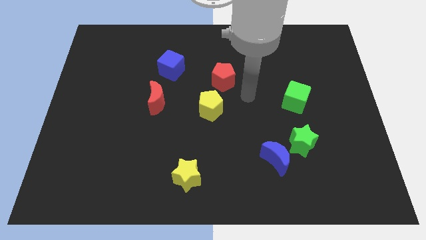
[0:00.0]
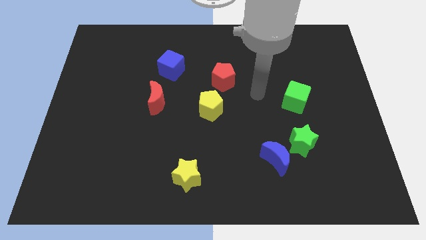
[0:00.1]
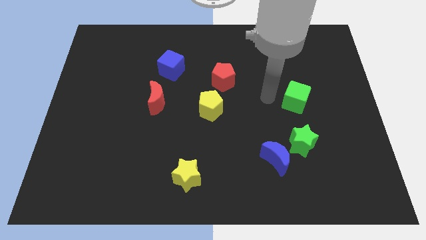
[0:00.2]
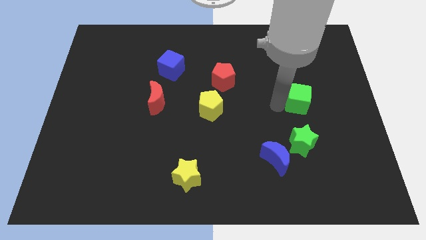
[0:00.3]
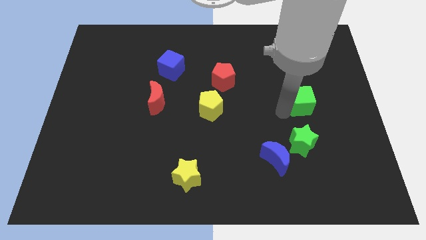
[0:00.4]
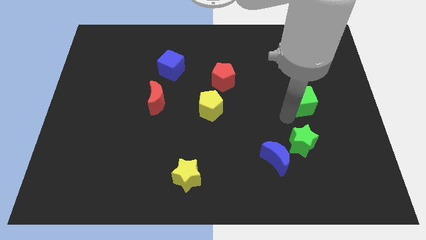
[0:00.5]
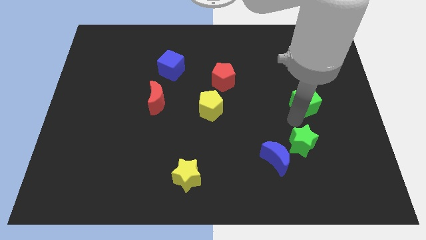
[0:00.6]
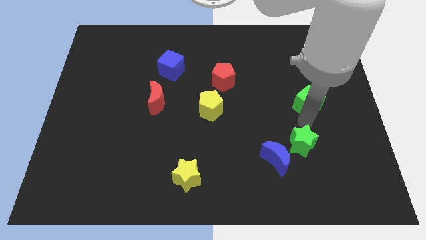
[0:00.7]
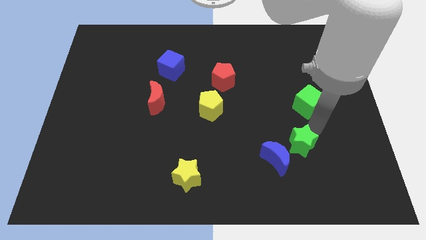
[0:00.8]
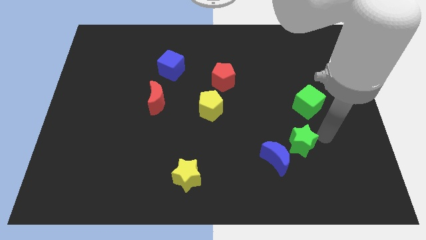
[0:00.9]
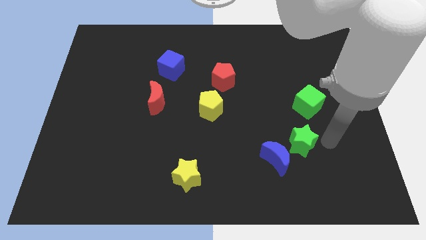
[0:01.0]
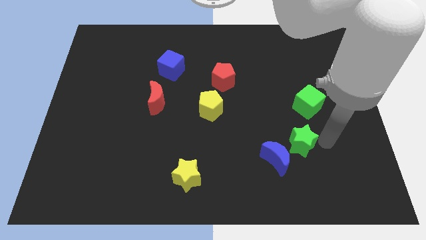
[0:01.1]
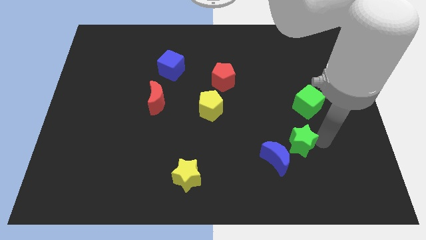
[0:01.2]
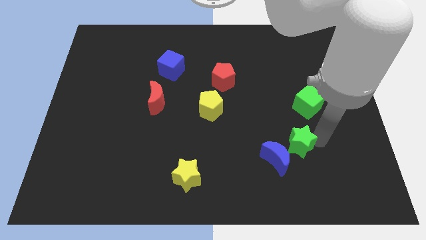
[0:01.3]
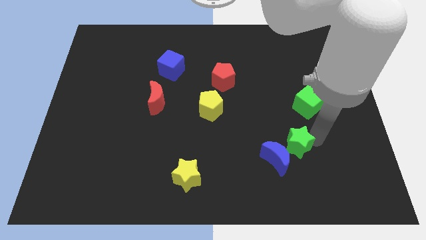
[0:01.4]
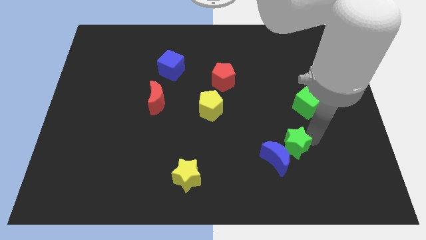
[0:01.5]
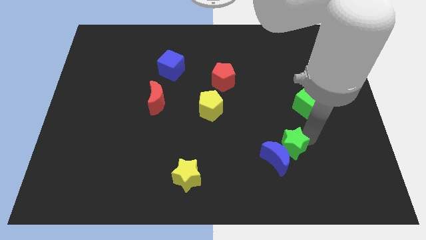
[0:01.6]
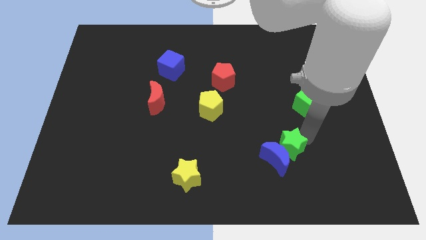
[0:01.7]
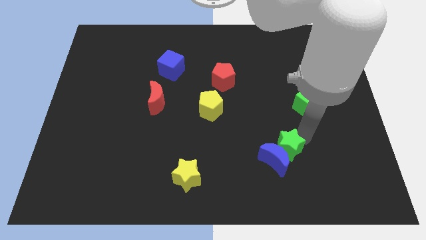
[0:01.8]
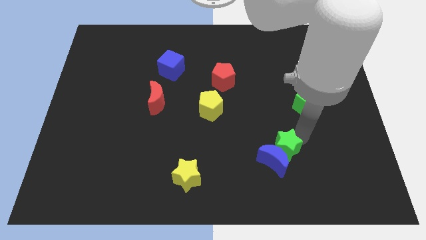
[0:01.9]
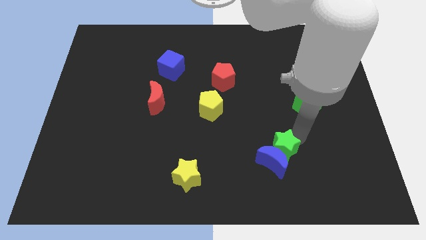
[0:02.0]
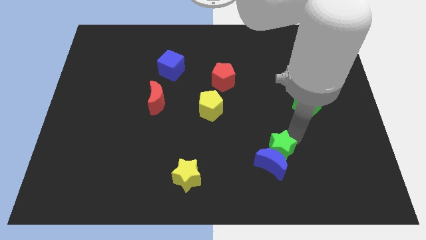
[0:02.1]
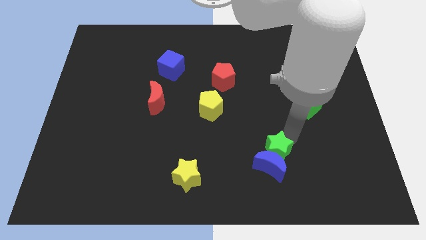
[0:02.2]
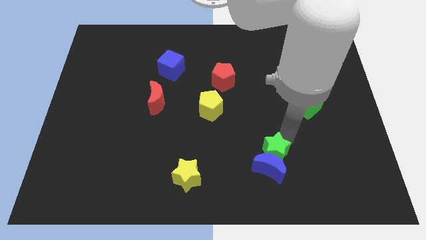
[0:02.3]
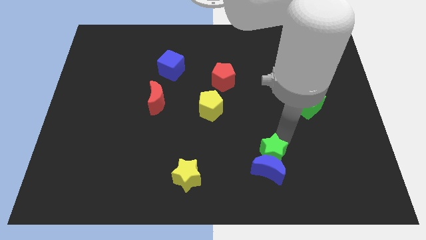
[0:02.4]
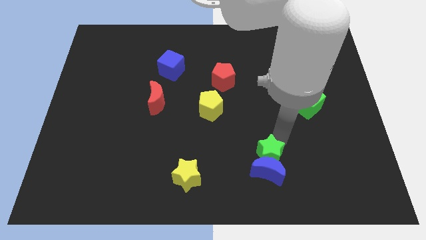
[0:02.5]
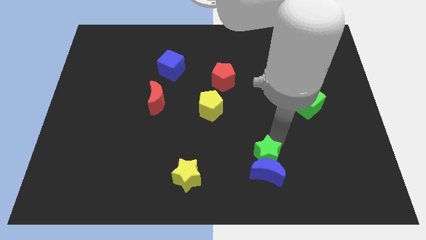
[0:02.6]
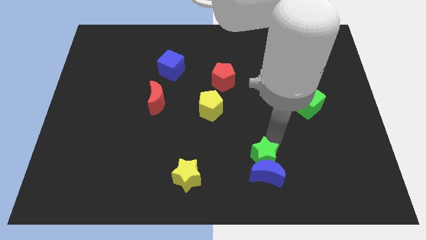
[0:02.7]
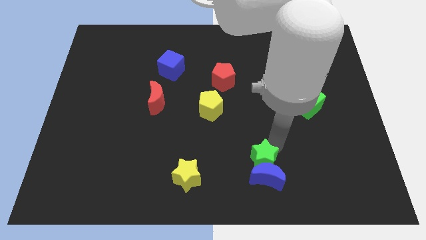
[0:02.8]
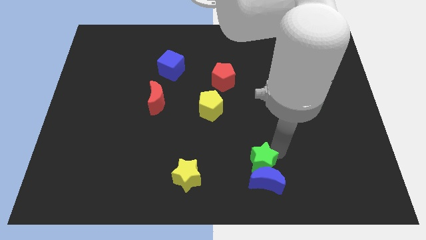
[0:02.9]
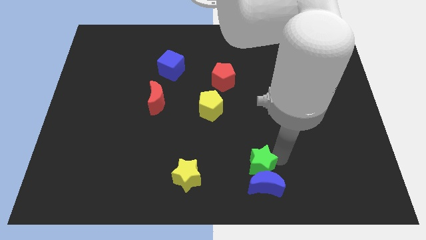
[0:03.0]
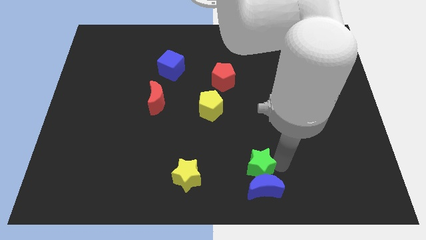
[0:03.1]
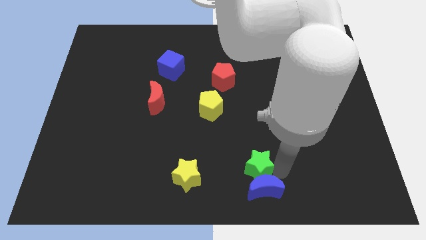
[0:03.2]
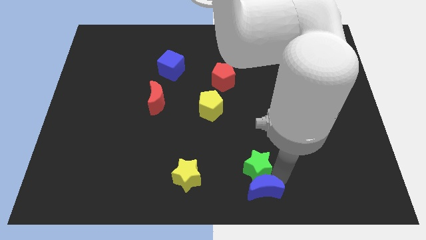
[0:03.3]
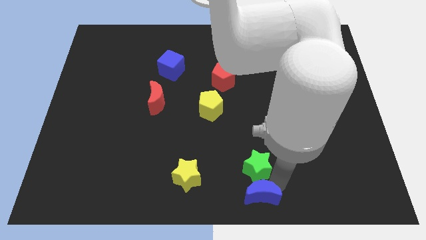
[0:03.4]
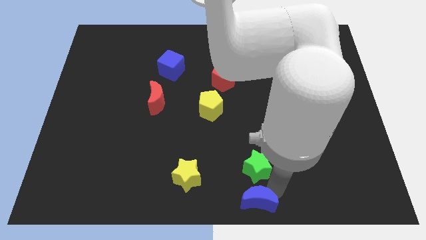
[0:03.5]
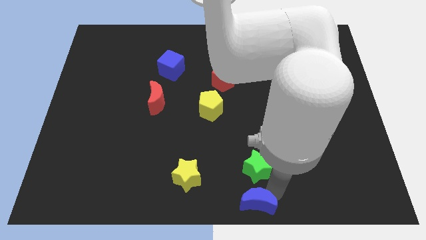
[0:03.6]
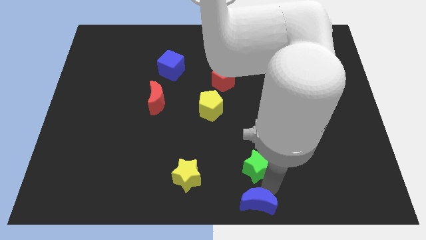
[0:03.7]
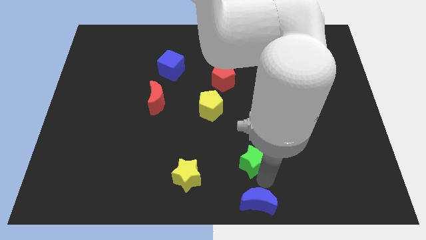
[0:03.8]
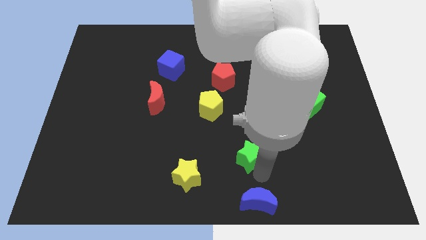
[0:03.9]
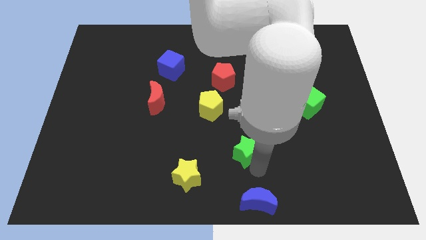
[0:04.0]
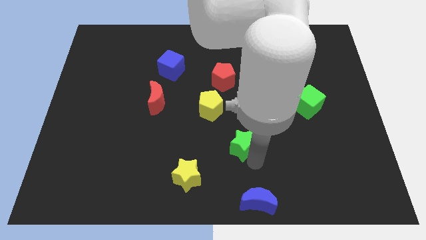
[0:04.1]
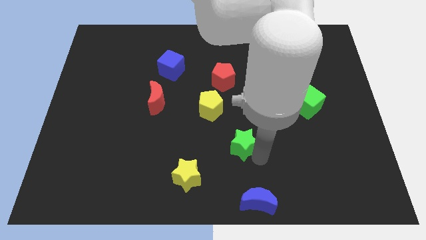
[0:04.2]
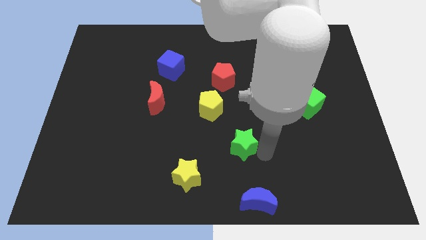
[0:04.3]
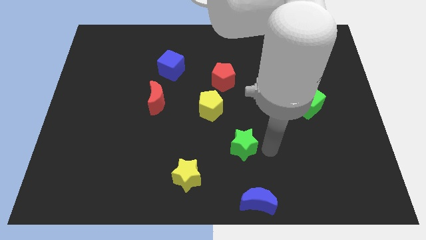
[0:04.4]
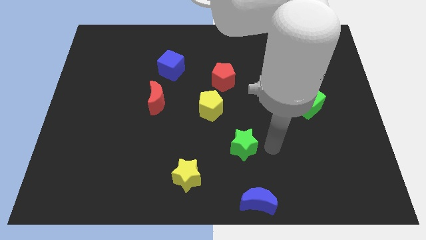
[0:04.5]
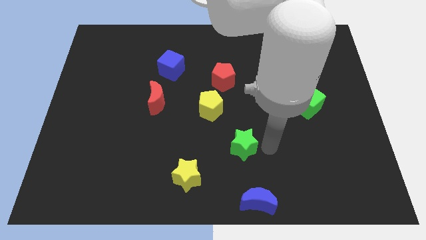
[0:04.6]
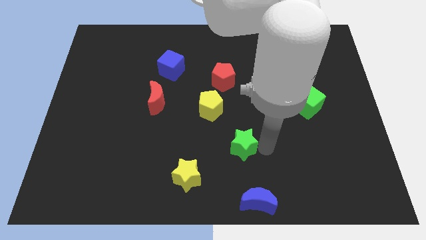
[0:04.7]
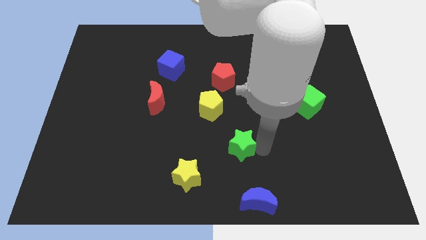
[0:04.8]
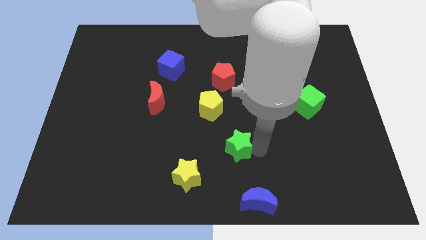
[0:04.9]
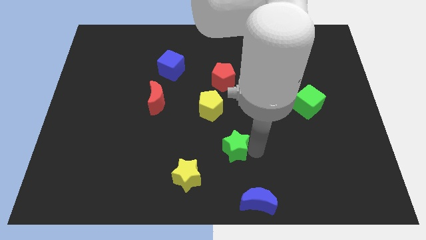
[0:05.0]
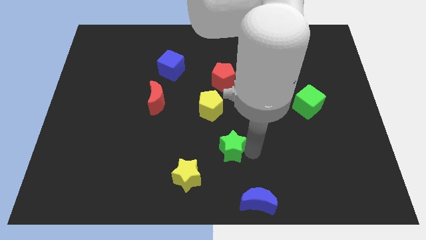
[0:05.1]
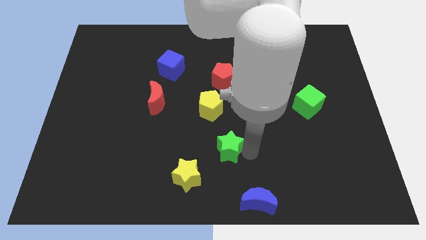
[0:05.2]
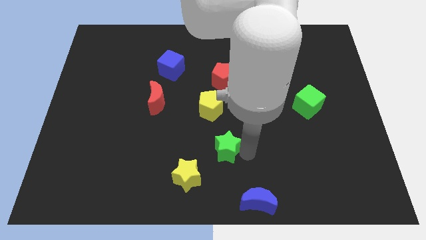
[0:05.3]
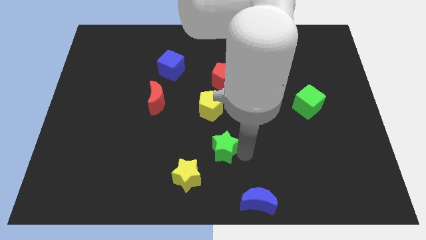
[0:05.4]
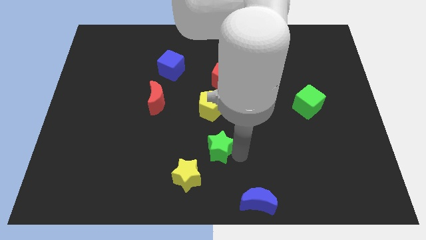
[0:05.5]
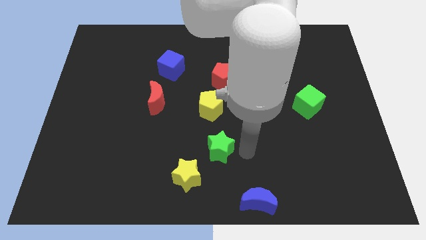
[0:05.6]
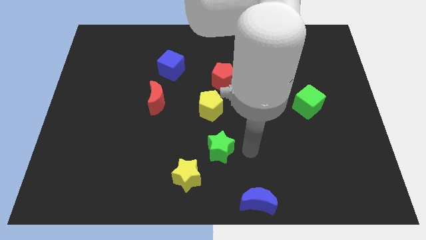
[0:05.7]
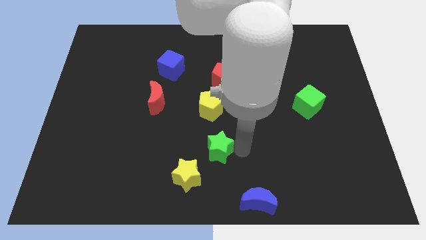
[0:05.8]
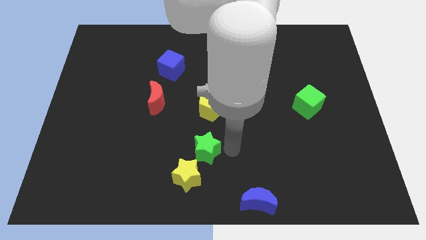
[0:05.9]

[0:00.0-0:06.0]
slide the green star to the left

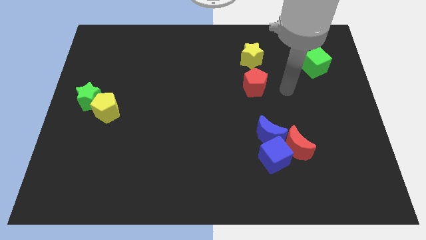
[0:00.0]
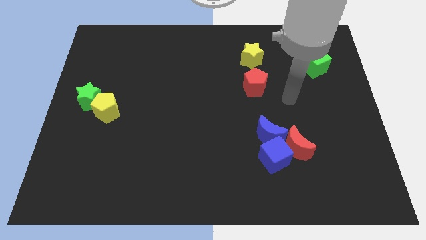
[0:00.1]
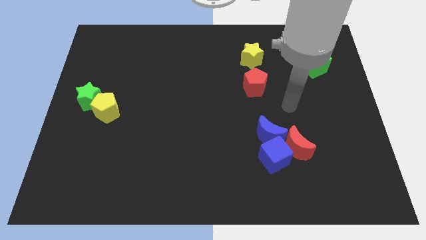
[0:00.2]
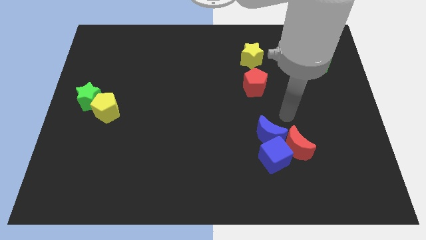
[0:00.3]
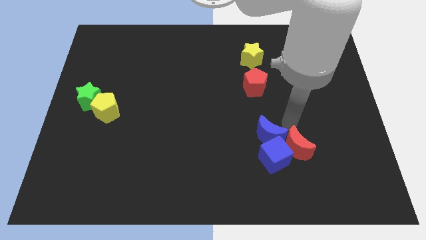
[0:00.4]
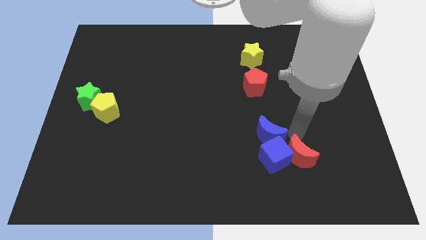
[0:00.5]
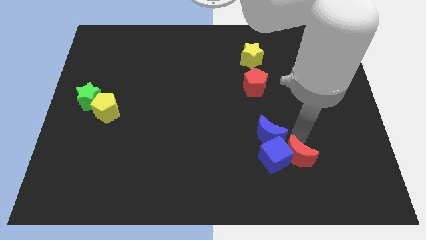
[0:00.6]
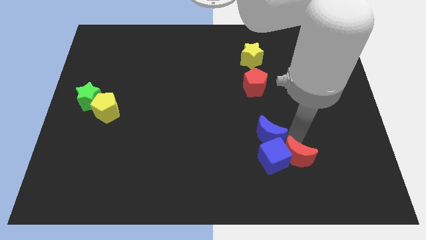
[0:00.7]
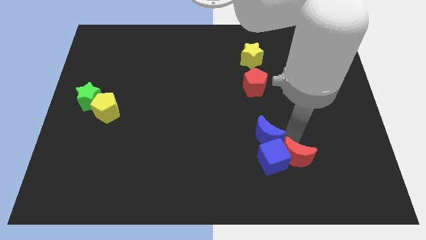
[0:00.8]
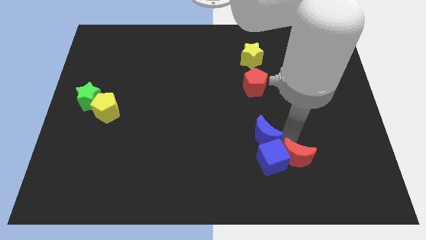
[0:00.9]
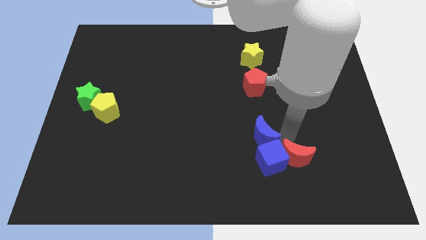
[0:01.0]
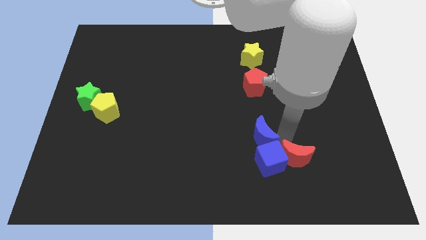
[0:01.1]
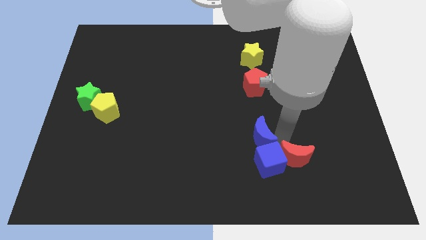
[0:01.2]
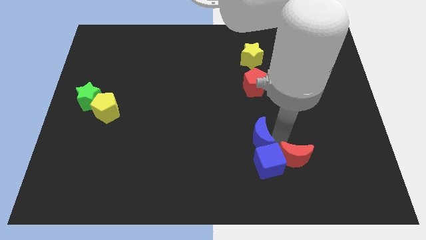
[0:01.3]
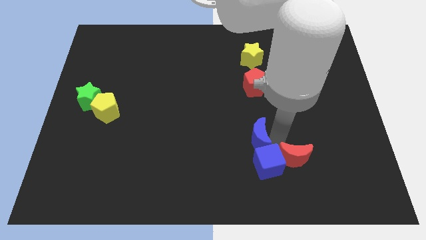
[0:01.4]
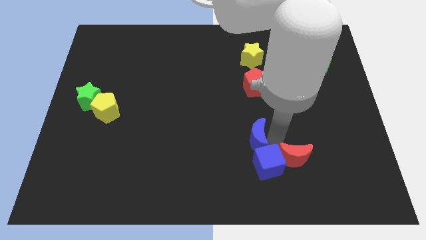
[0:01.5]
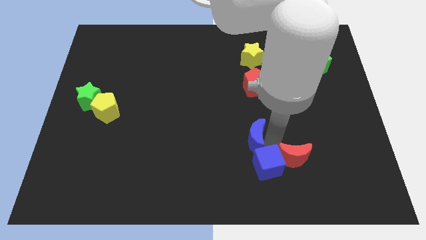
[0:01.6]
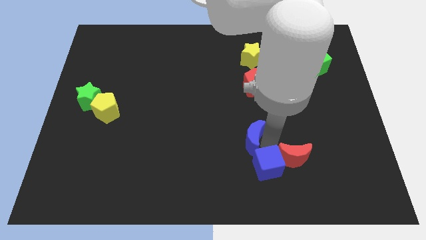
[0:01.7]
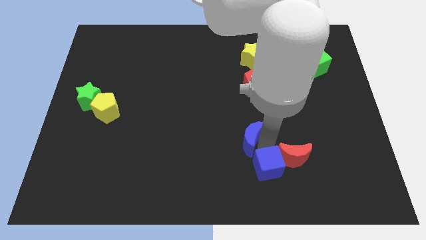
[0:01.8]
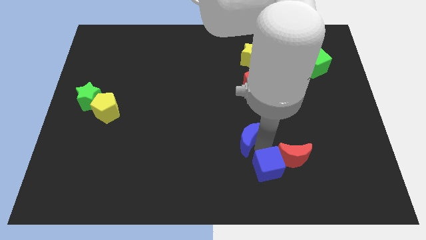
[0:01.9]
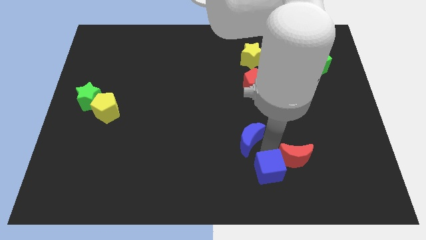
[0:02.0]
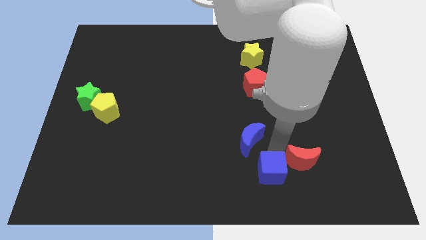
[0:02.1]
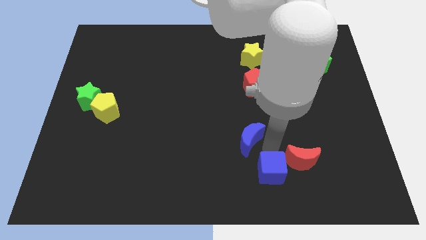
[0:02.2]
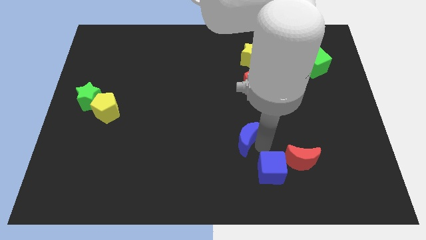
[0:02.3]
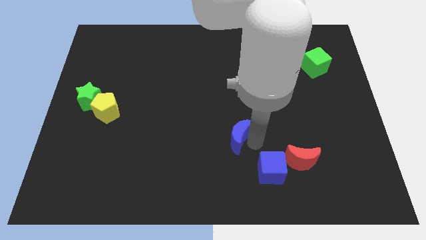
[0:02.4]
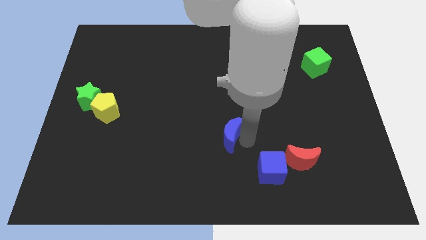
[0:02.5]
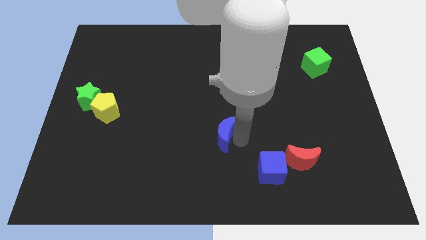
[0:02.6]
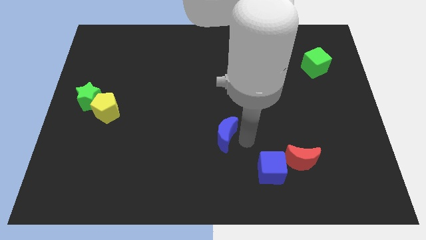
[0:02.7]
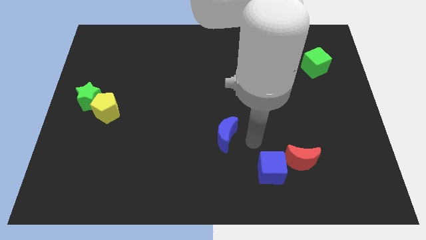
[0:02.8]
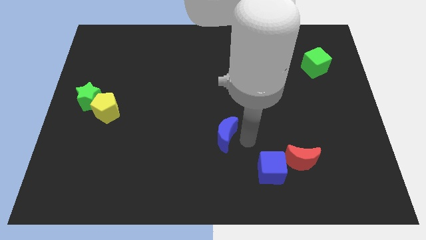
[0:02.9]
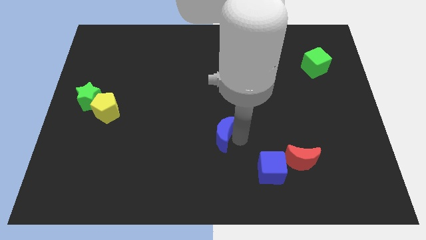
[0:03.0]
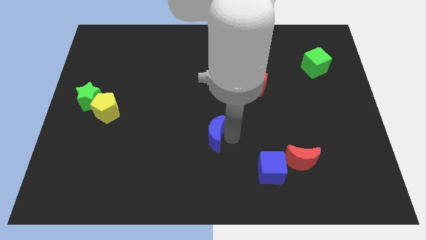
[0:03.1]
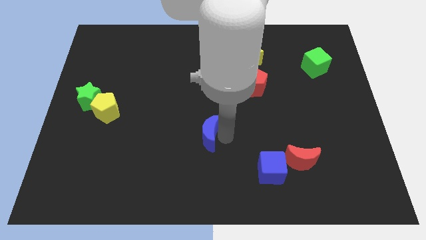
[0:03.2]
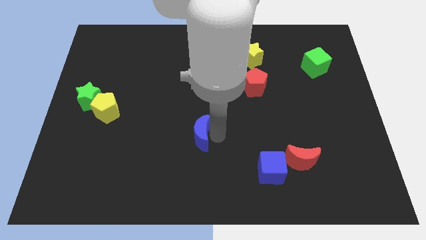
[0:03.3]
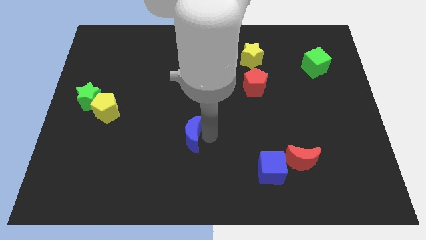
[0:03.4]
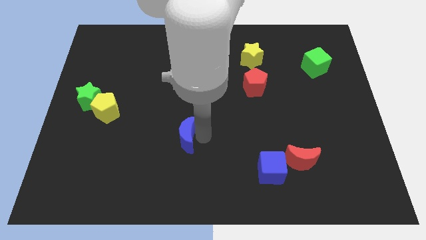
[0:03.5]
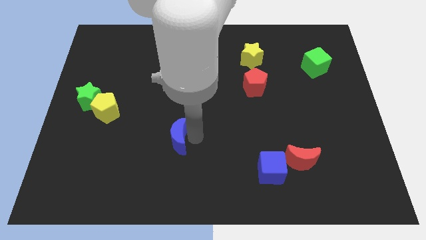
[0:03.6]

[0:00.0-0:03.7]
slide the blue moon left
